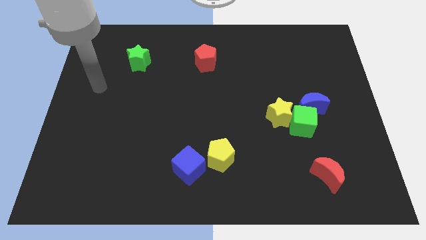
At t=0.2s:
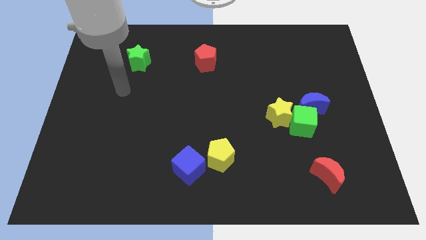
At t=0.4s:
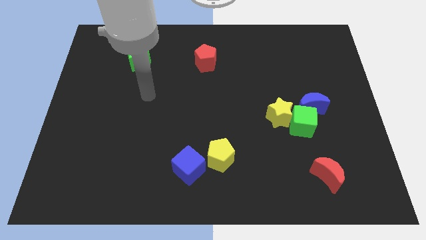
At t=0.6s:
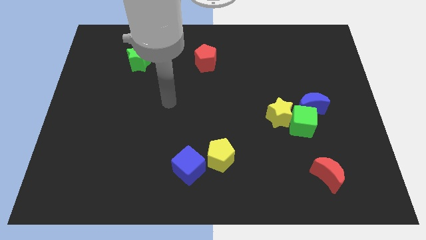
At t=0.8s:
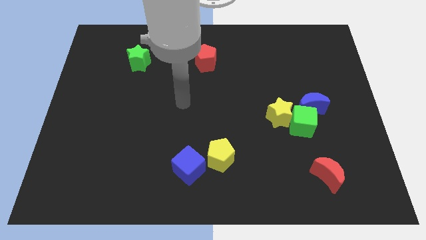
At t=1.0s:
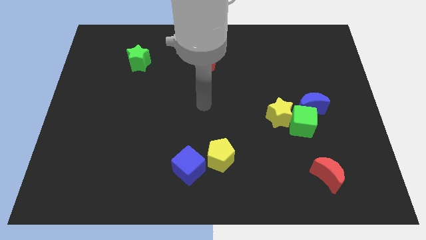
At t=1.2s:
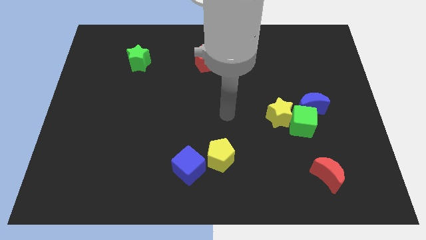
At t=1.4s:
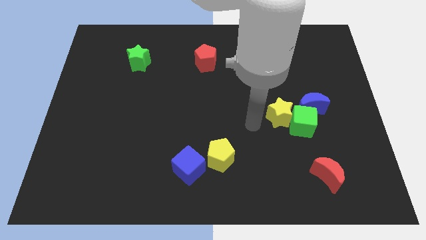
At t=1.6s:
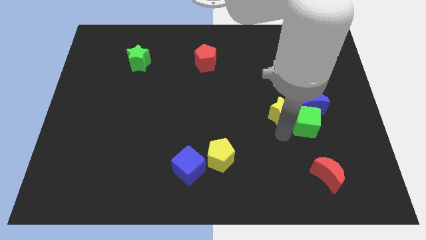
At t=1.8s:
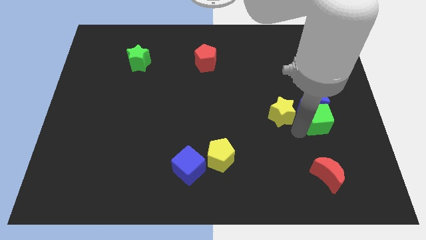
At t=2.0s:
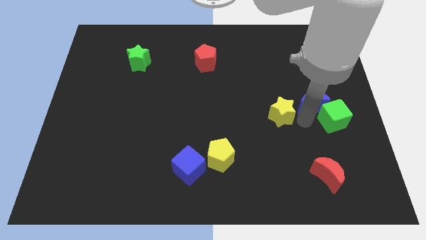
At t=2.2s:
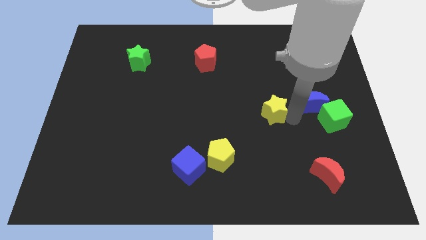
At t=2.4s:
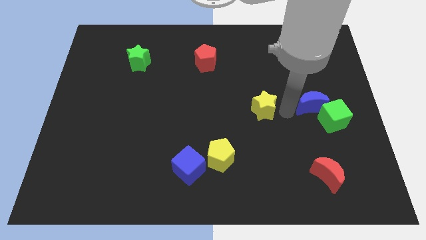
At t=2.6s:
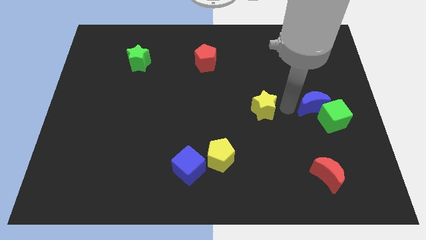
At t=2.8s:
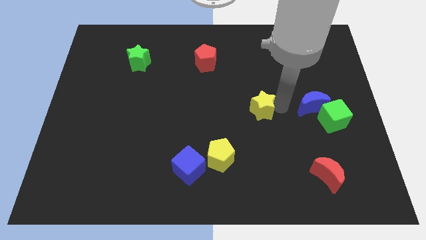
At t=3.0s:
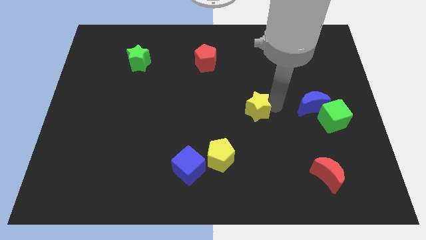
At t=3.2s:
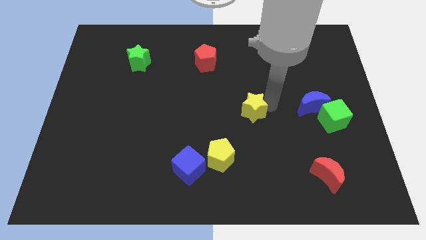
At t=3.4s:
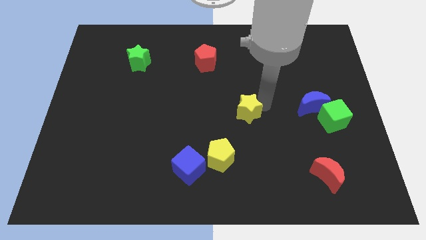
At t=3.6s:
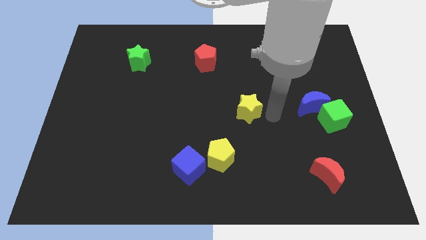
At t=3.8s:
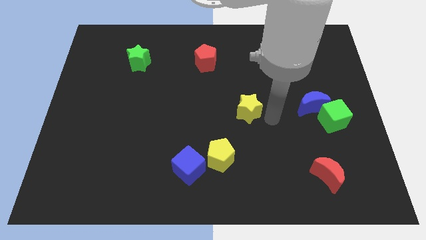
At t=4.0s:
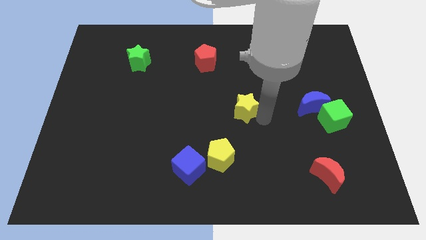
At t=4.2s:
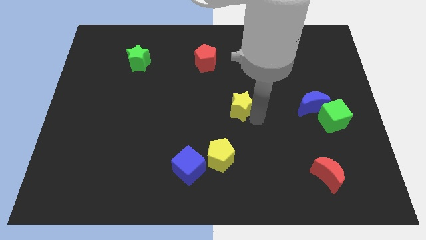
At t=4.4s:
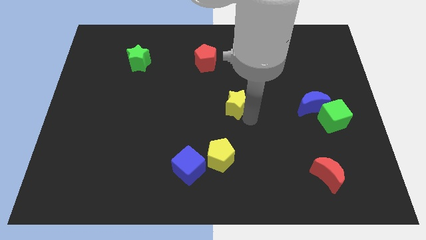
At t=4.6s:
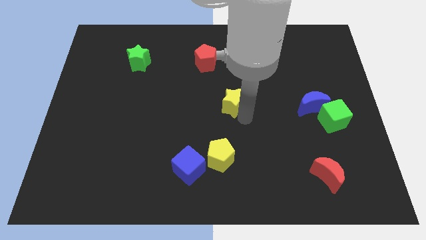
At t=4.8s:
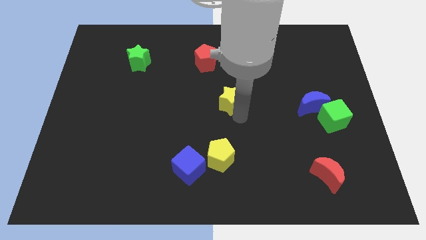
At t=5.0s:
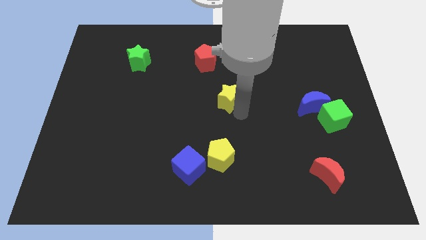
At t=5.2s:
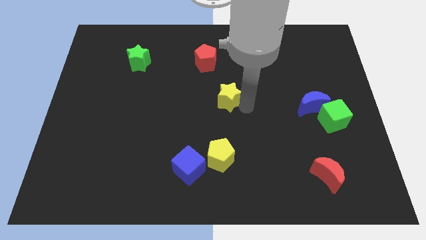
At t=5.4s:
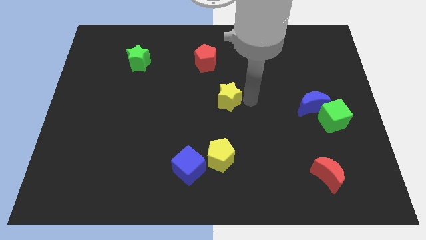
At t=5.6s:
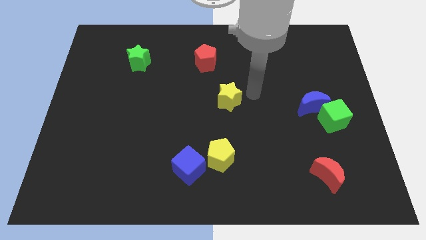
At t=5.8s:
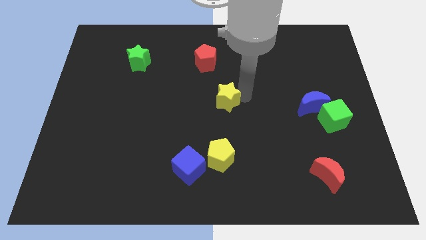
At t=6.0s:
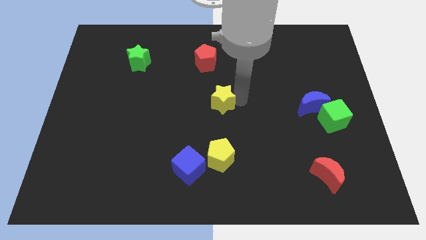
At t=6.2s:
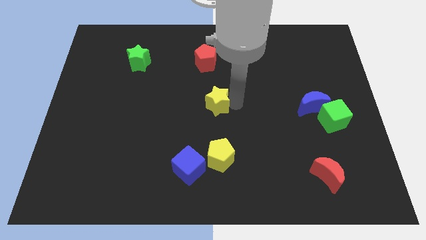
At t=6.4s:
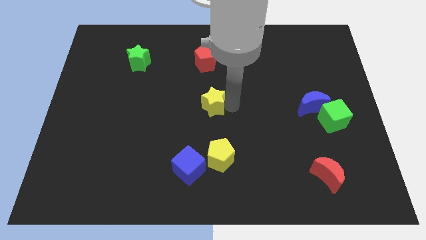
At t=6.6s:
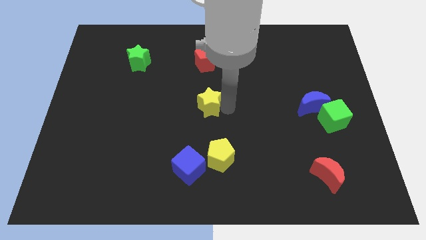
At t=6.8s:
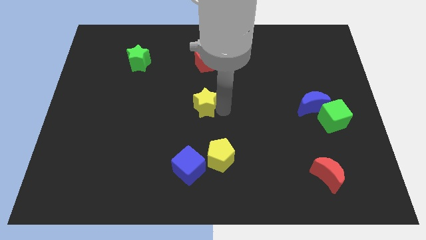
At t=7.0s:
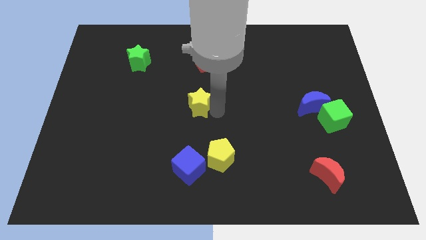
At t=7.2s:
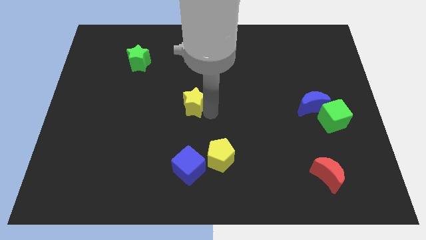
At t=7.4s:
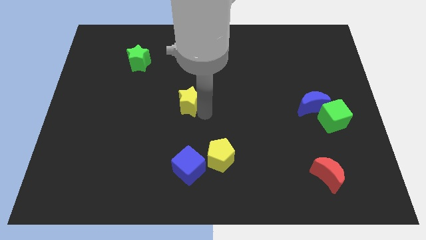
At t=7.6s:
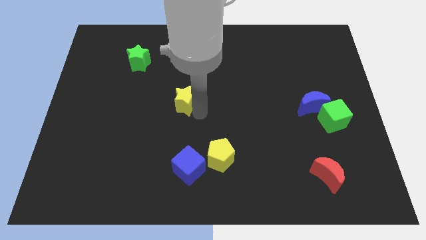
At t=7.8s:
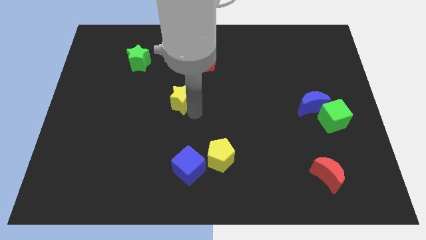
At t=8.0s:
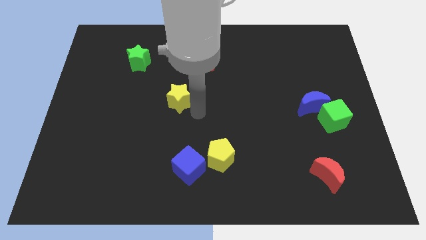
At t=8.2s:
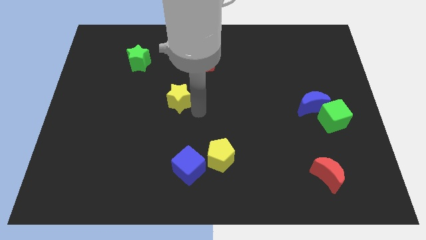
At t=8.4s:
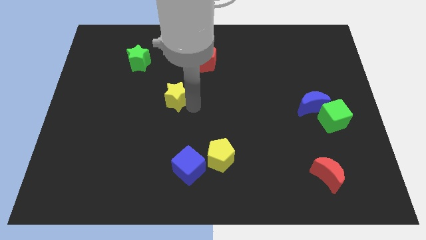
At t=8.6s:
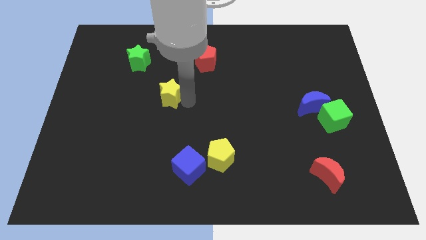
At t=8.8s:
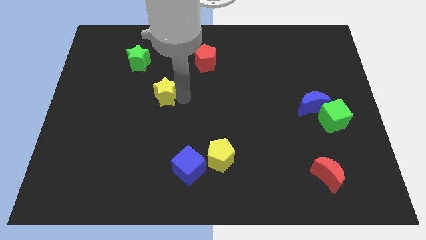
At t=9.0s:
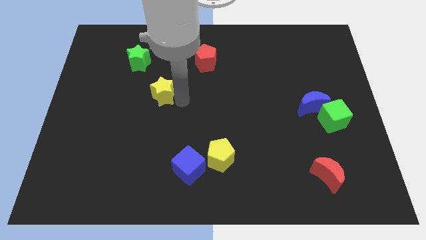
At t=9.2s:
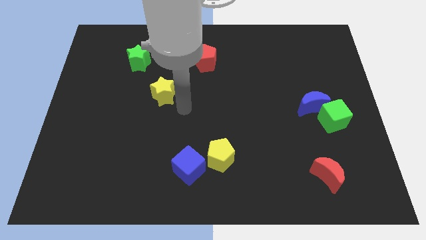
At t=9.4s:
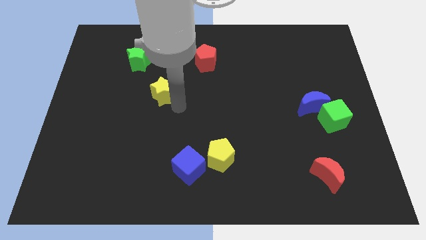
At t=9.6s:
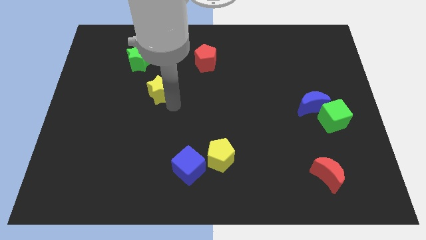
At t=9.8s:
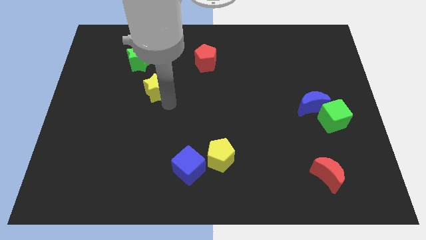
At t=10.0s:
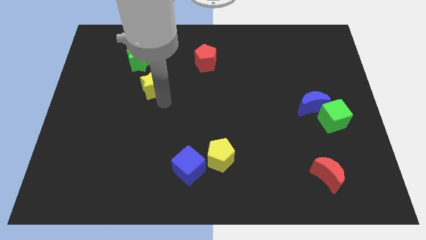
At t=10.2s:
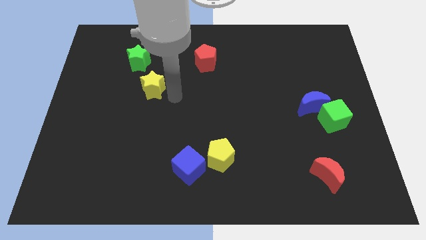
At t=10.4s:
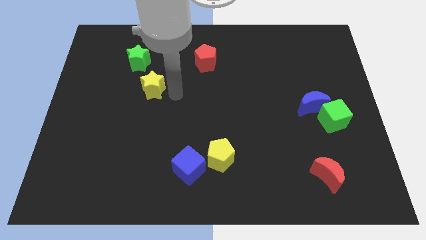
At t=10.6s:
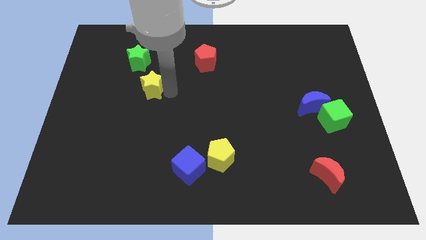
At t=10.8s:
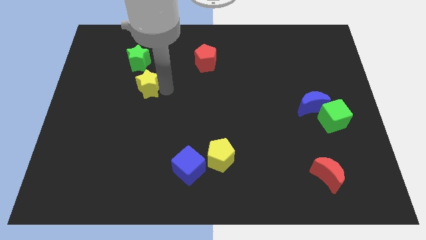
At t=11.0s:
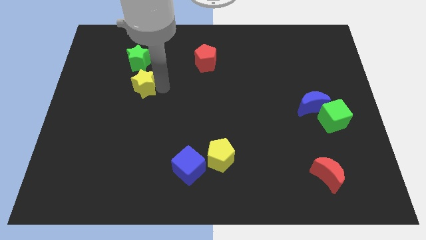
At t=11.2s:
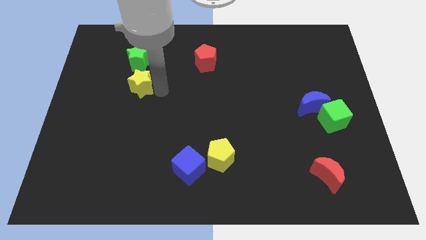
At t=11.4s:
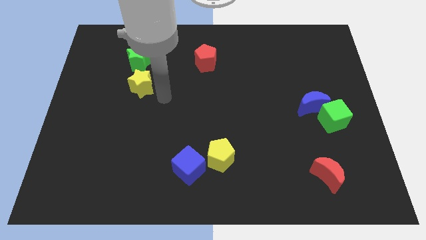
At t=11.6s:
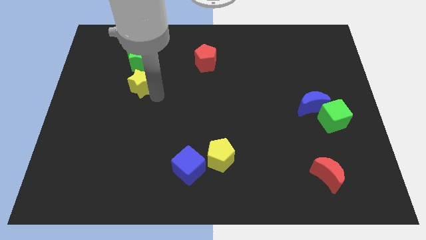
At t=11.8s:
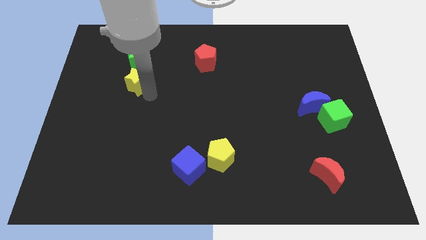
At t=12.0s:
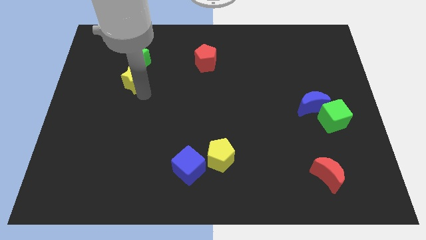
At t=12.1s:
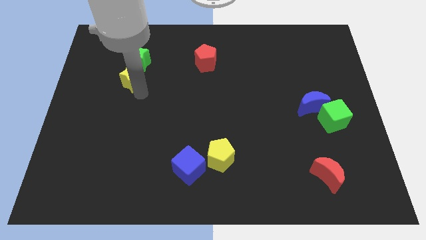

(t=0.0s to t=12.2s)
move the yellow star to the bottom left side of the green star

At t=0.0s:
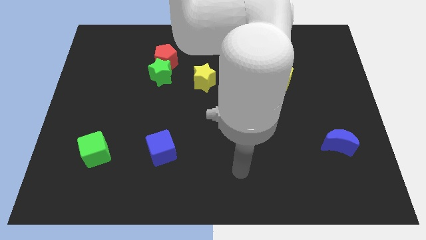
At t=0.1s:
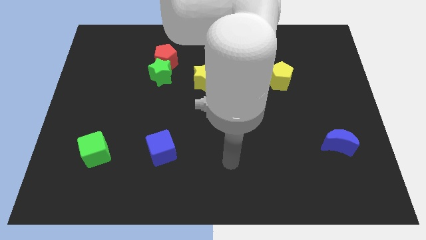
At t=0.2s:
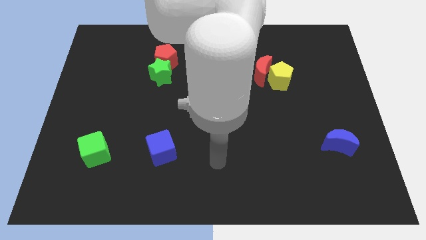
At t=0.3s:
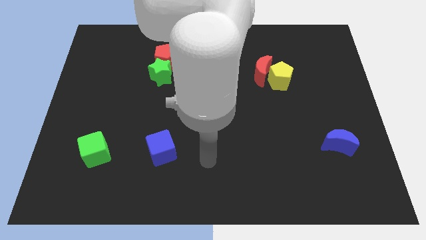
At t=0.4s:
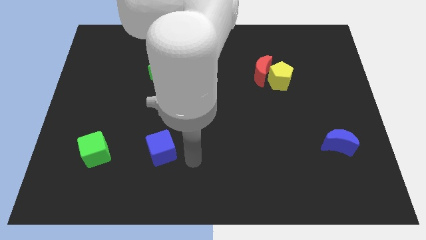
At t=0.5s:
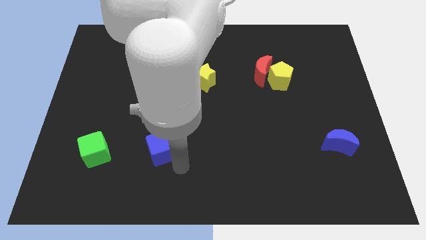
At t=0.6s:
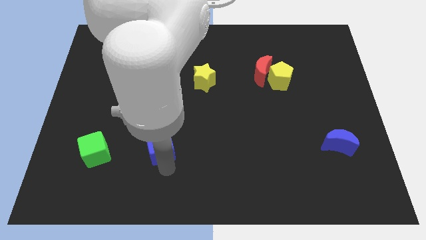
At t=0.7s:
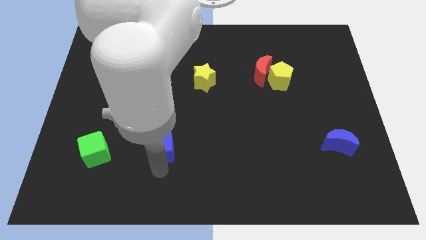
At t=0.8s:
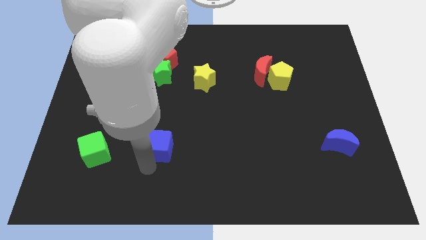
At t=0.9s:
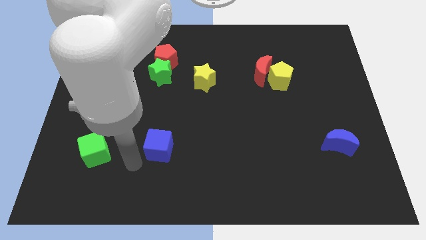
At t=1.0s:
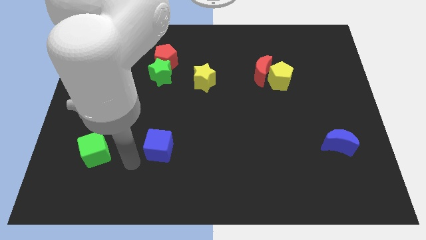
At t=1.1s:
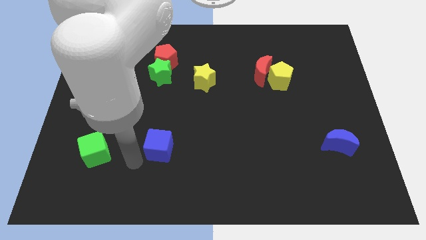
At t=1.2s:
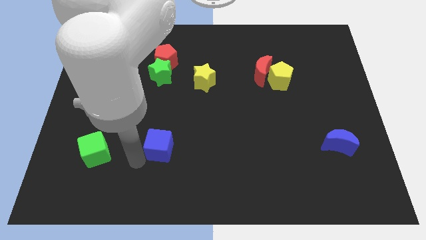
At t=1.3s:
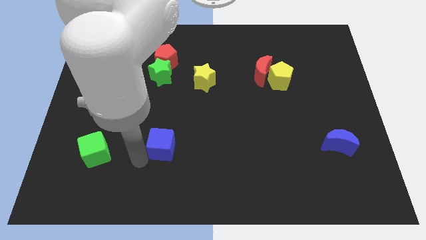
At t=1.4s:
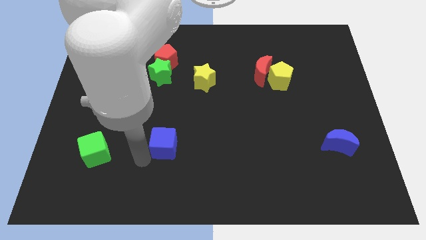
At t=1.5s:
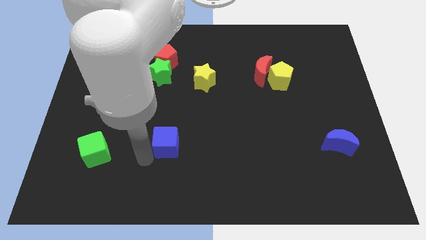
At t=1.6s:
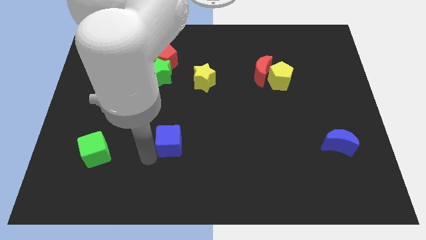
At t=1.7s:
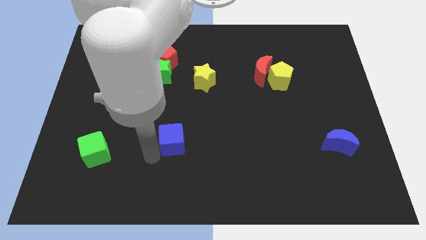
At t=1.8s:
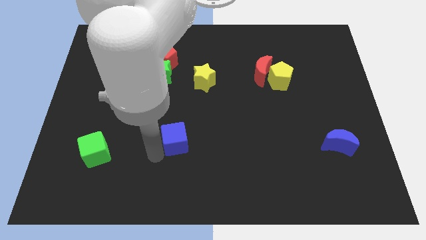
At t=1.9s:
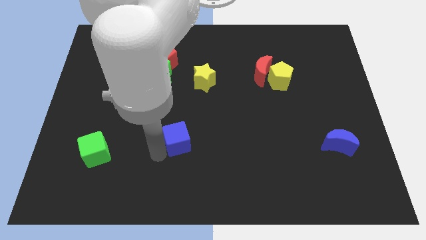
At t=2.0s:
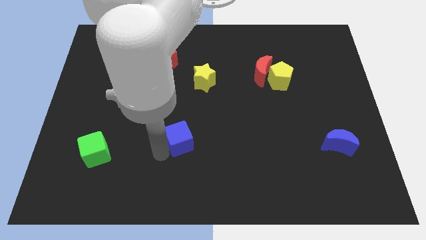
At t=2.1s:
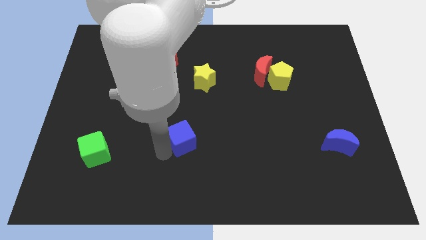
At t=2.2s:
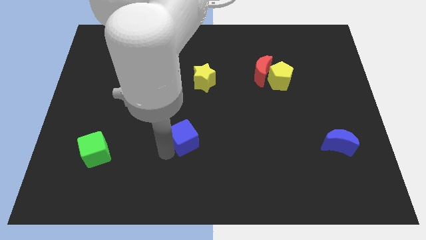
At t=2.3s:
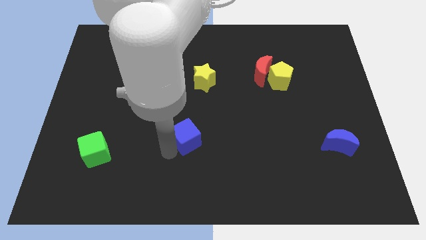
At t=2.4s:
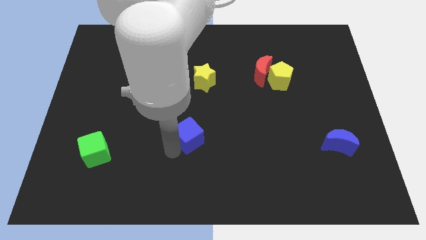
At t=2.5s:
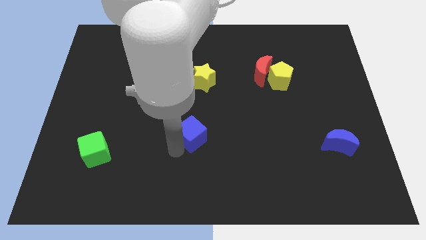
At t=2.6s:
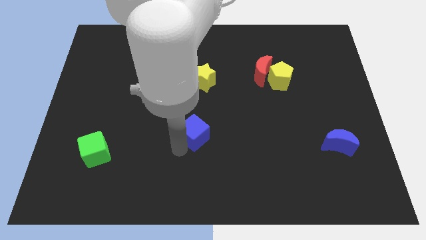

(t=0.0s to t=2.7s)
move the blue cube to the bottom of the yellow star
